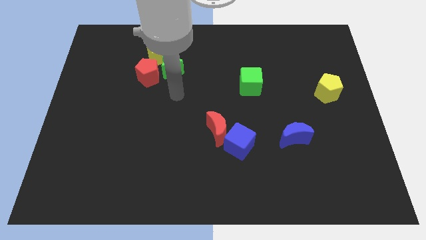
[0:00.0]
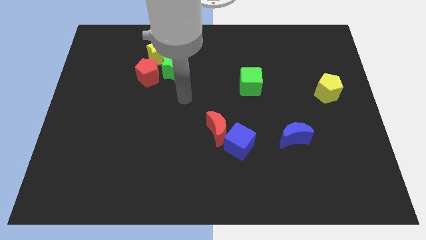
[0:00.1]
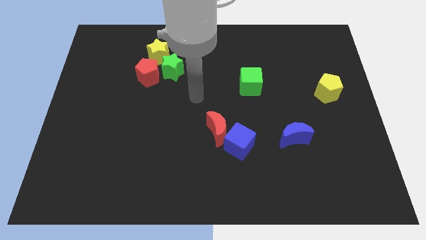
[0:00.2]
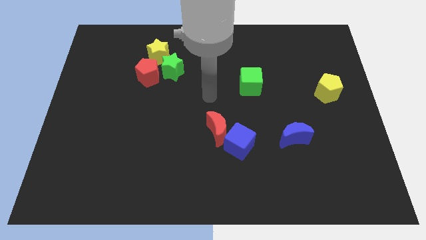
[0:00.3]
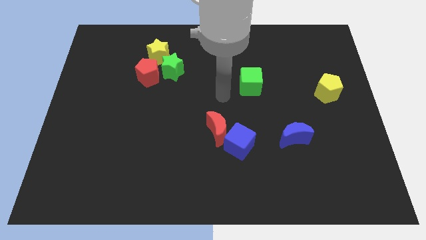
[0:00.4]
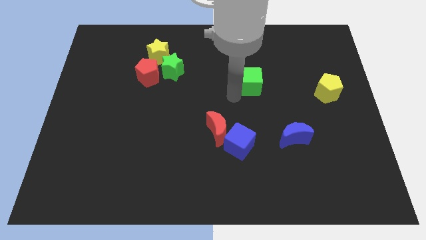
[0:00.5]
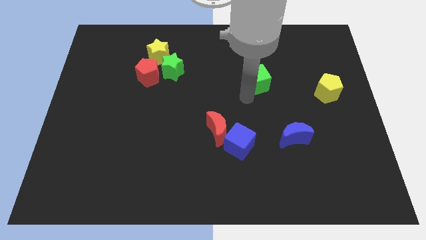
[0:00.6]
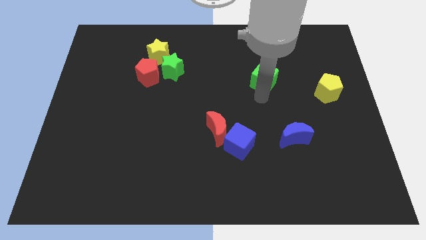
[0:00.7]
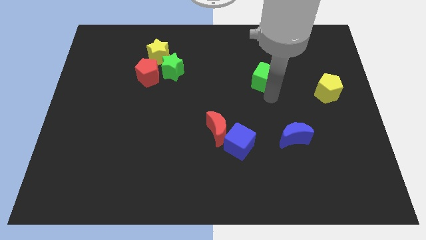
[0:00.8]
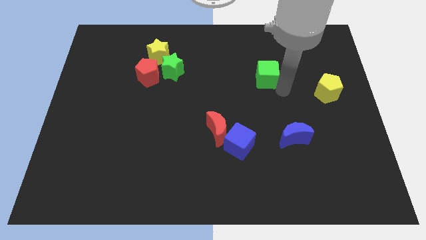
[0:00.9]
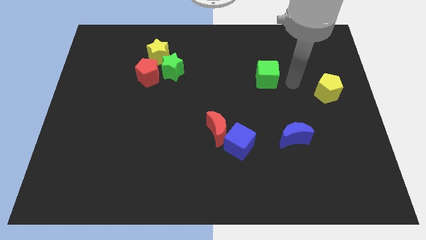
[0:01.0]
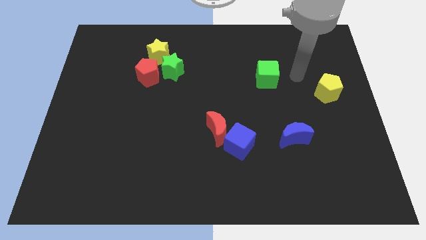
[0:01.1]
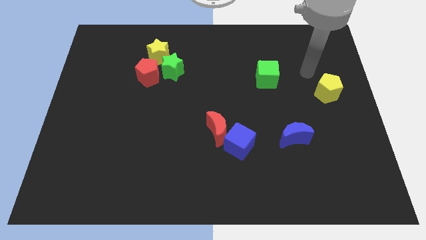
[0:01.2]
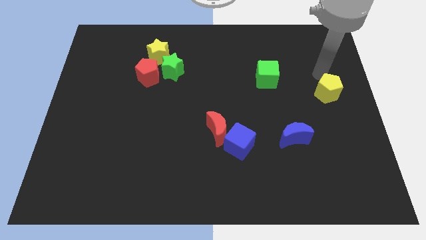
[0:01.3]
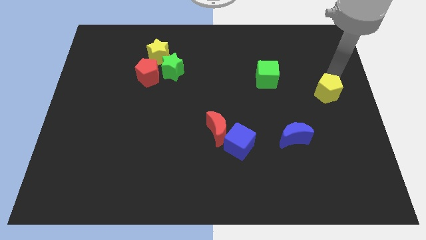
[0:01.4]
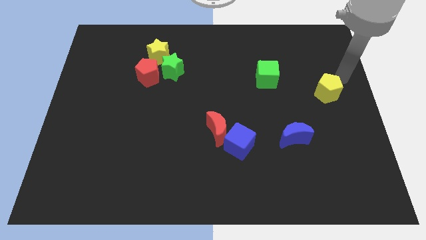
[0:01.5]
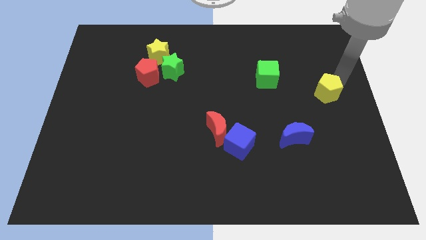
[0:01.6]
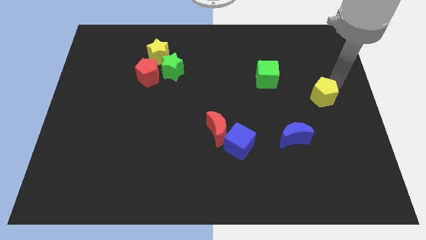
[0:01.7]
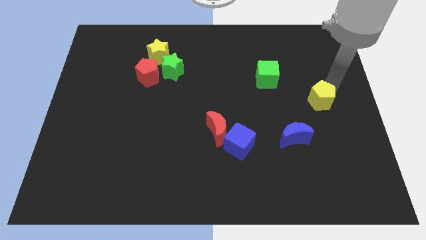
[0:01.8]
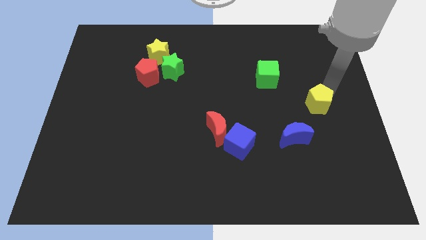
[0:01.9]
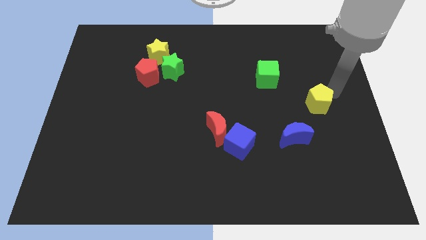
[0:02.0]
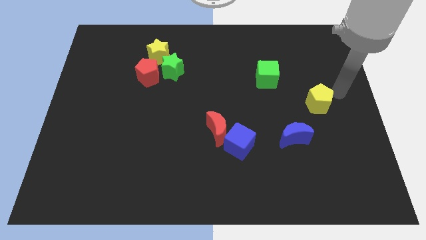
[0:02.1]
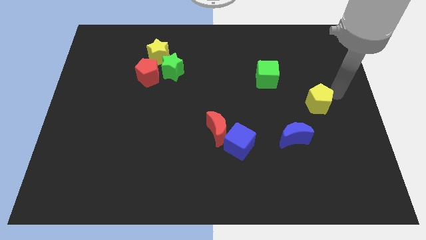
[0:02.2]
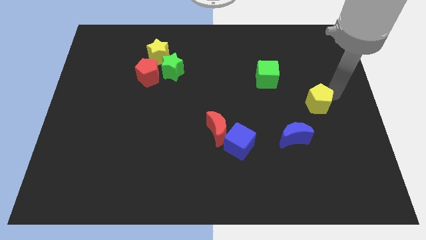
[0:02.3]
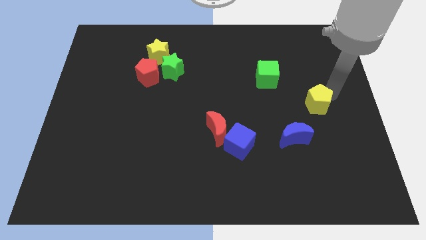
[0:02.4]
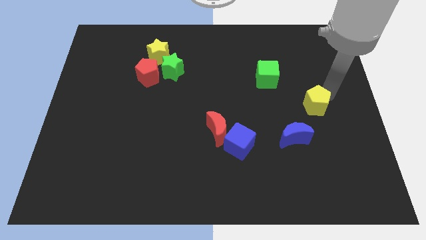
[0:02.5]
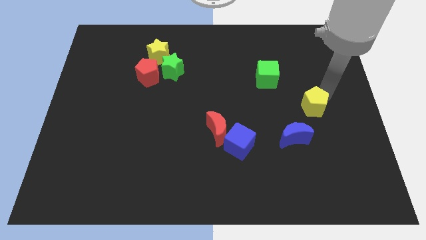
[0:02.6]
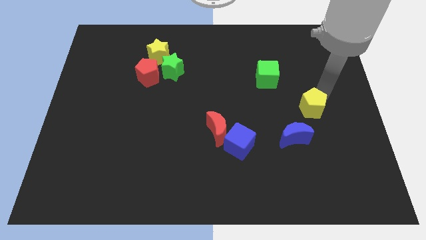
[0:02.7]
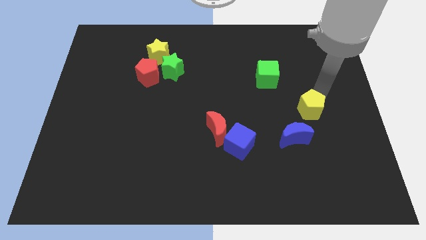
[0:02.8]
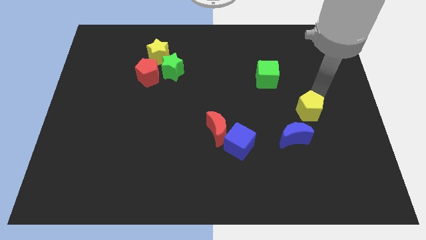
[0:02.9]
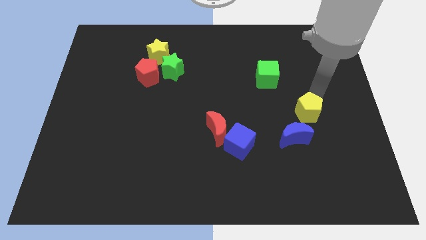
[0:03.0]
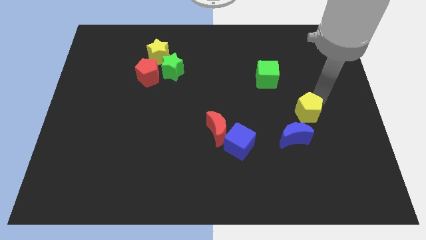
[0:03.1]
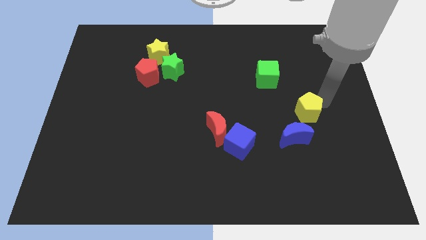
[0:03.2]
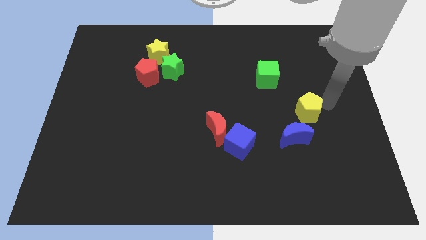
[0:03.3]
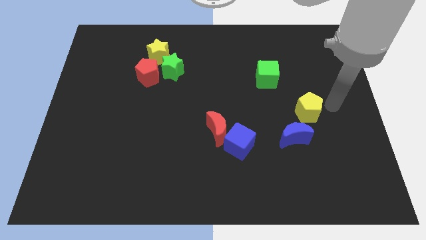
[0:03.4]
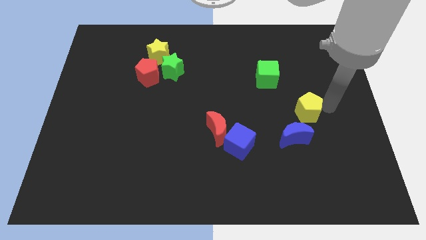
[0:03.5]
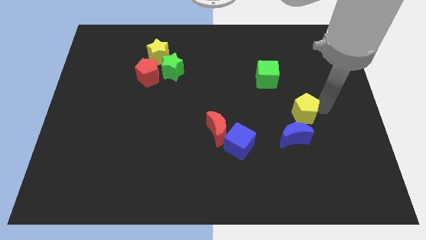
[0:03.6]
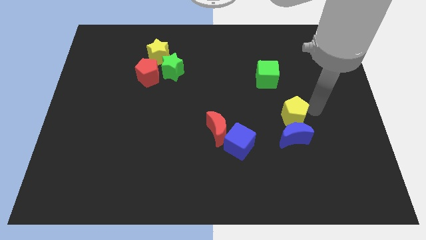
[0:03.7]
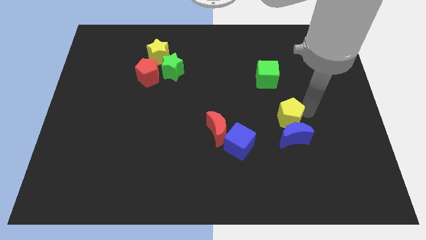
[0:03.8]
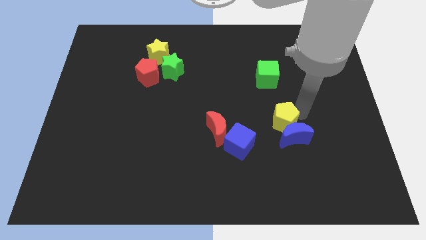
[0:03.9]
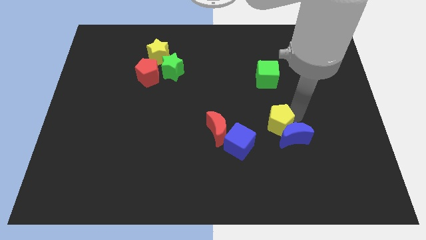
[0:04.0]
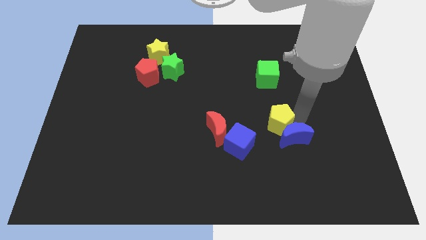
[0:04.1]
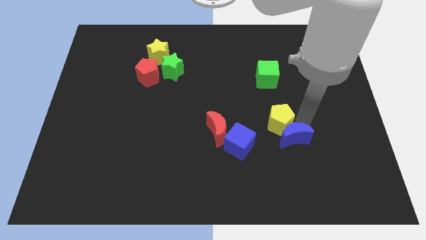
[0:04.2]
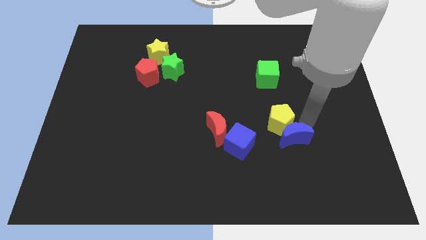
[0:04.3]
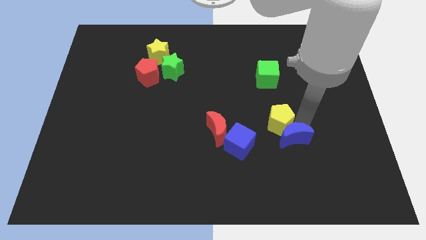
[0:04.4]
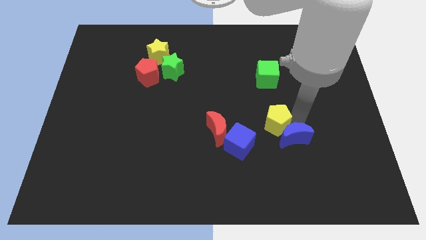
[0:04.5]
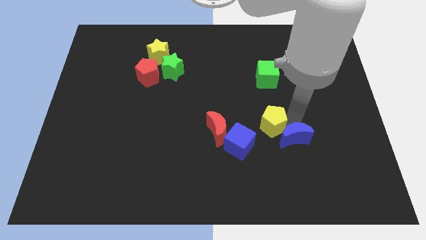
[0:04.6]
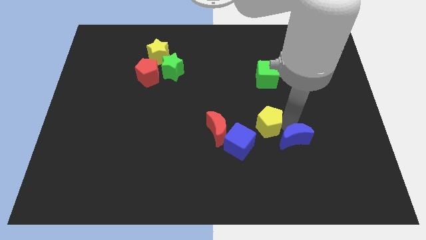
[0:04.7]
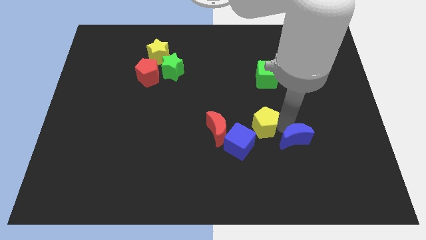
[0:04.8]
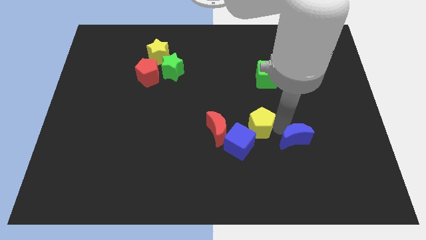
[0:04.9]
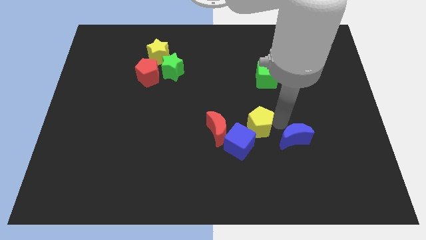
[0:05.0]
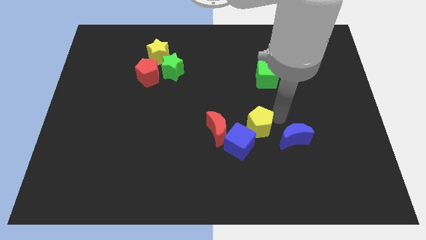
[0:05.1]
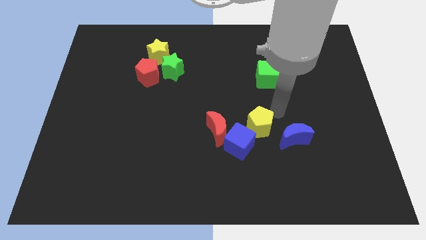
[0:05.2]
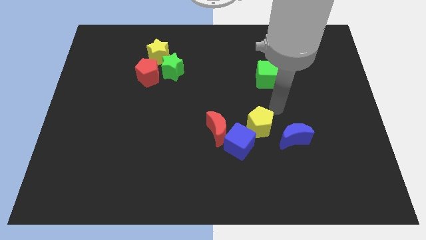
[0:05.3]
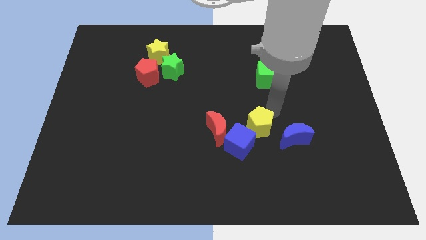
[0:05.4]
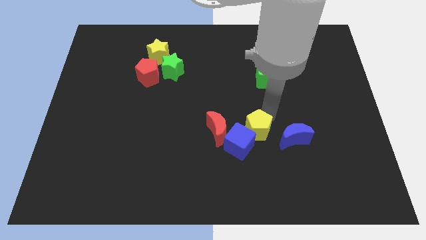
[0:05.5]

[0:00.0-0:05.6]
push the yellow pentagon close to the blue cube

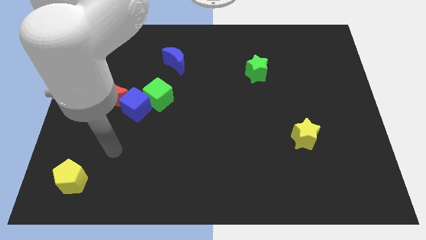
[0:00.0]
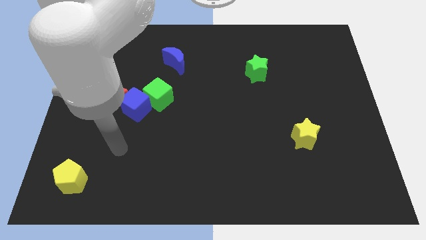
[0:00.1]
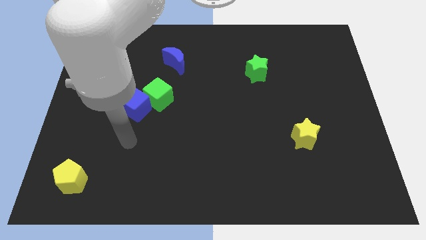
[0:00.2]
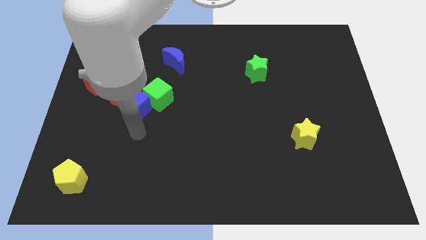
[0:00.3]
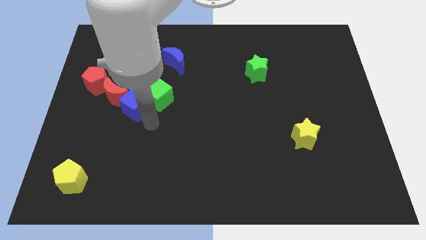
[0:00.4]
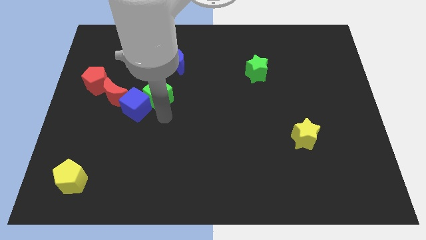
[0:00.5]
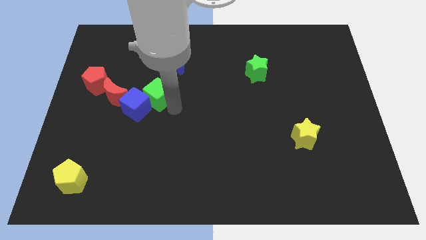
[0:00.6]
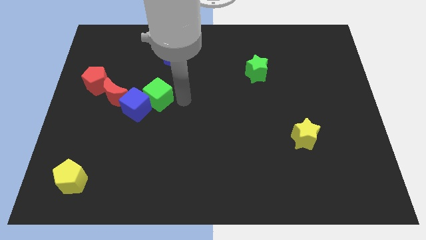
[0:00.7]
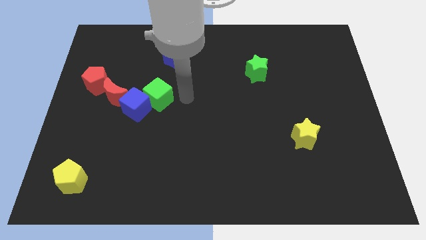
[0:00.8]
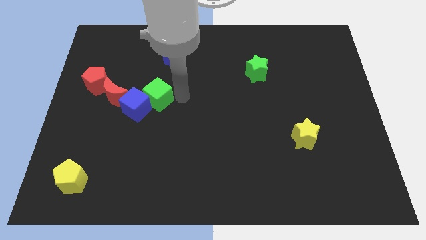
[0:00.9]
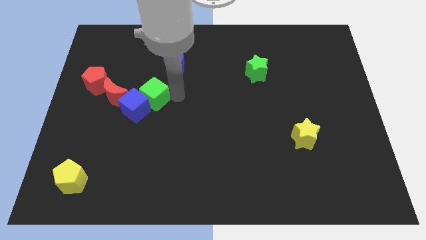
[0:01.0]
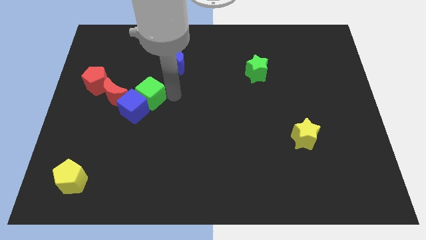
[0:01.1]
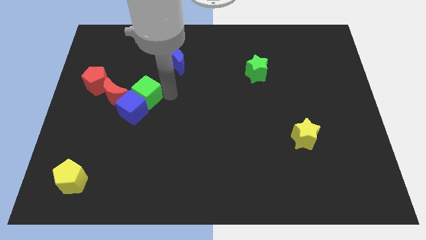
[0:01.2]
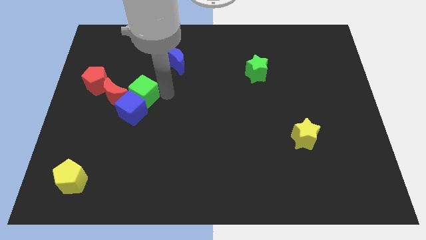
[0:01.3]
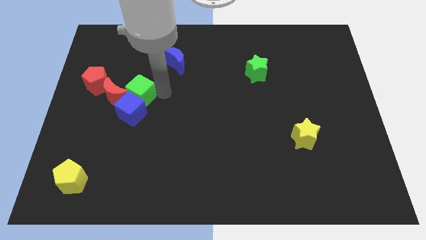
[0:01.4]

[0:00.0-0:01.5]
put the green cube towards the red moon
